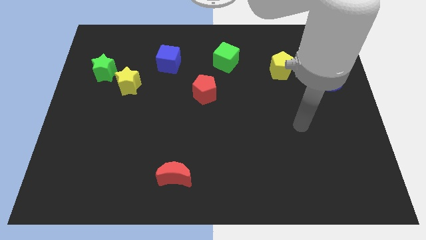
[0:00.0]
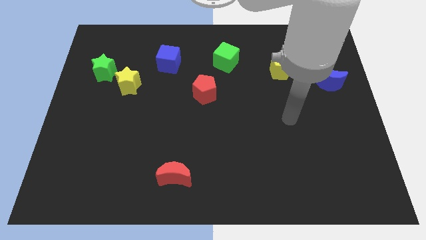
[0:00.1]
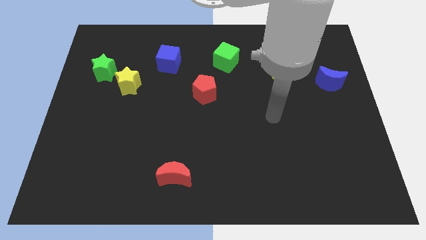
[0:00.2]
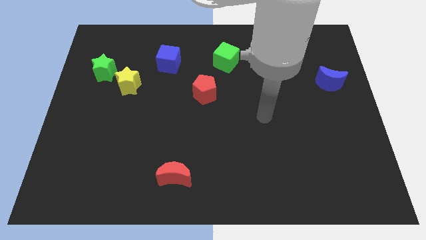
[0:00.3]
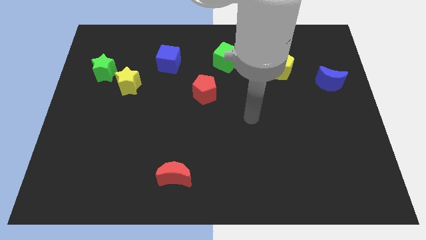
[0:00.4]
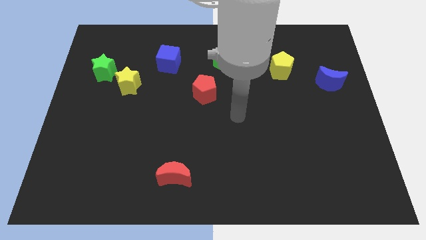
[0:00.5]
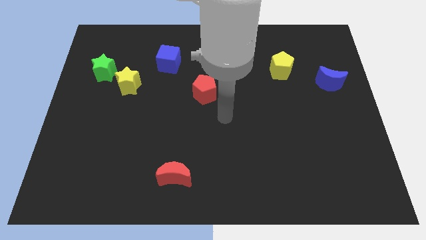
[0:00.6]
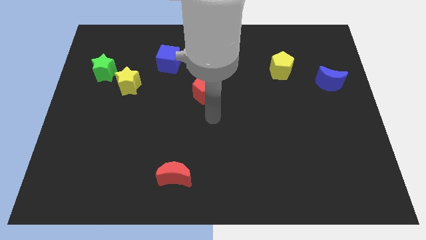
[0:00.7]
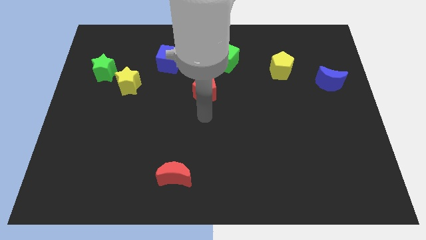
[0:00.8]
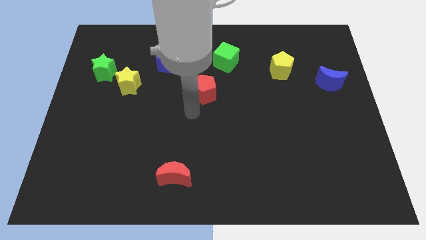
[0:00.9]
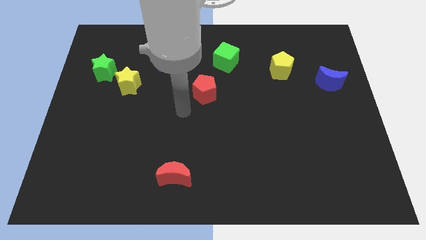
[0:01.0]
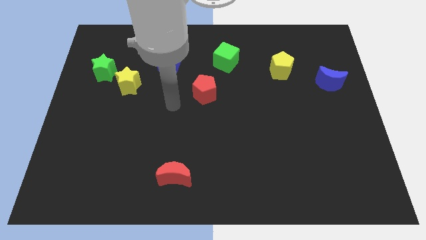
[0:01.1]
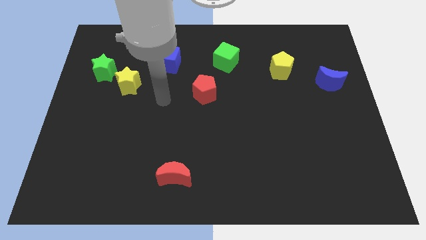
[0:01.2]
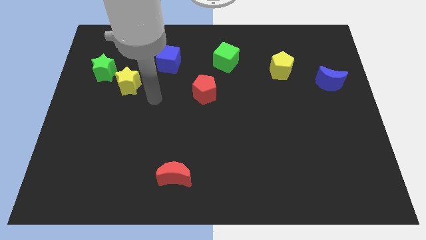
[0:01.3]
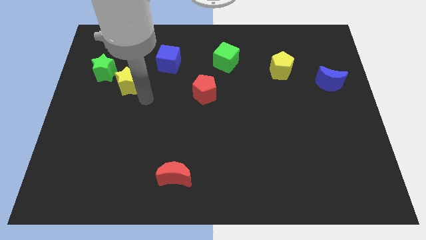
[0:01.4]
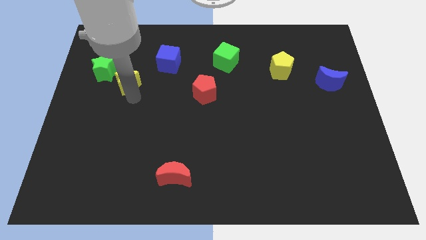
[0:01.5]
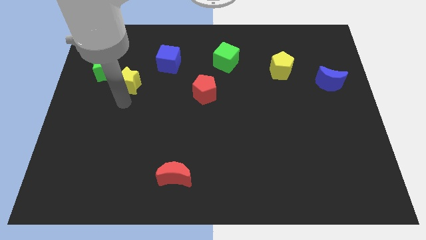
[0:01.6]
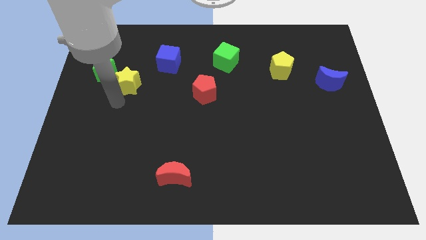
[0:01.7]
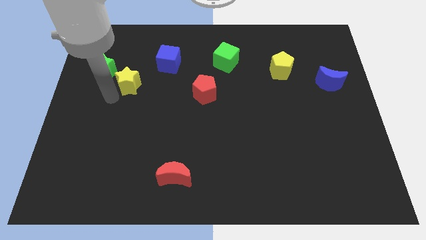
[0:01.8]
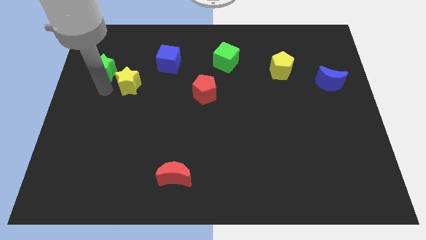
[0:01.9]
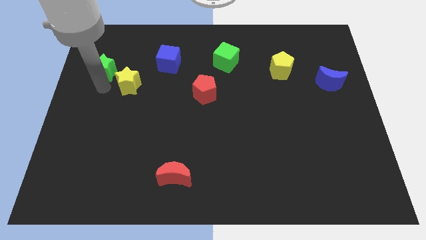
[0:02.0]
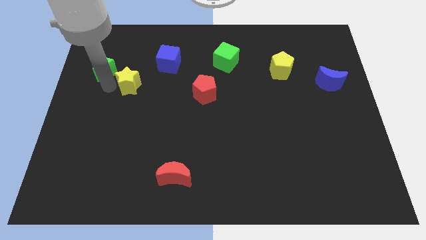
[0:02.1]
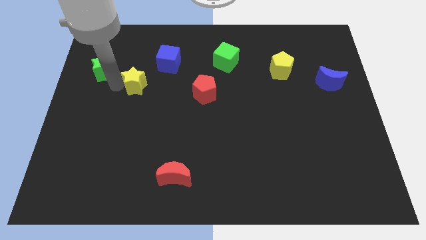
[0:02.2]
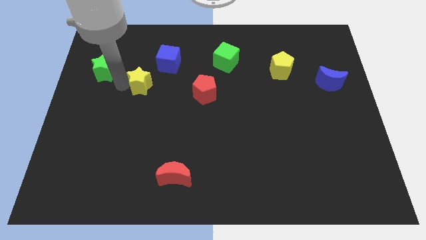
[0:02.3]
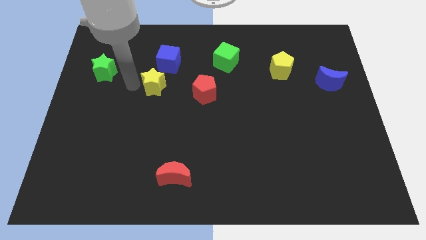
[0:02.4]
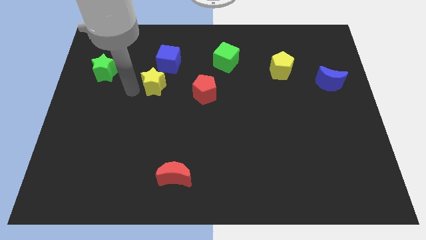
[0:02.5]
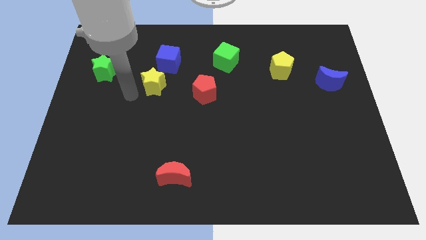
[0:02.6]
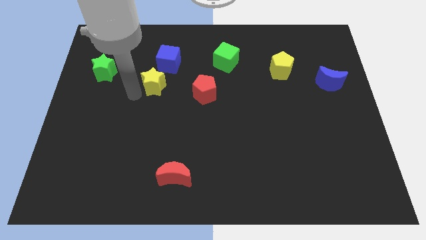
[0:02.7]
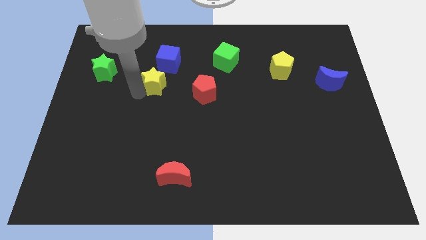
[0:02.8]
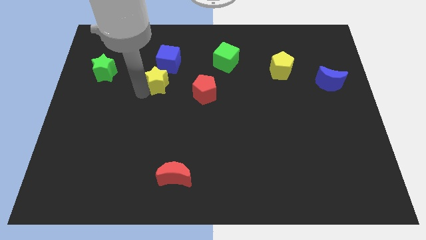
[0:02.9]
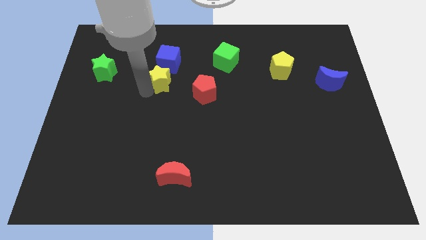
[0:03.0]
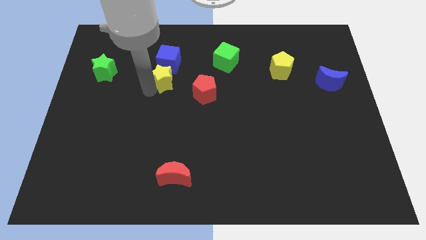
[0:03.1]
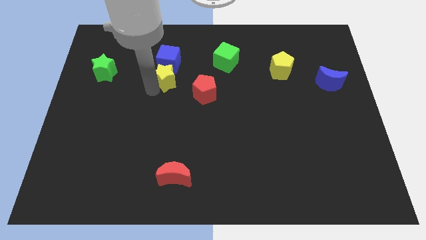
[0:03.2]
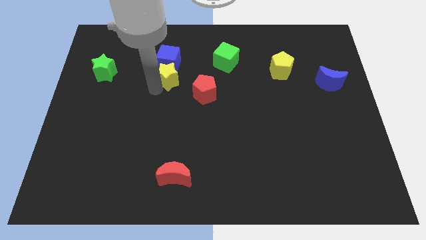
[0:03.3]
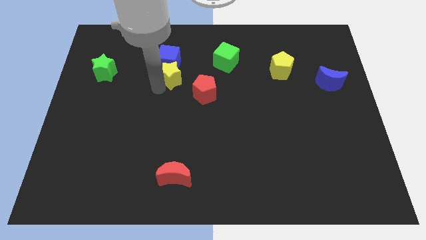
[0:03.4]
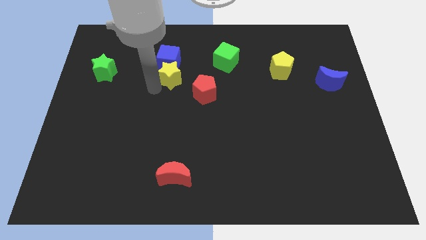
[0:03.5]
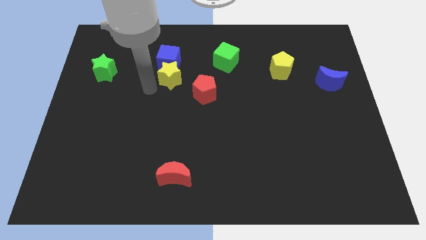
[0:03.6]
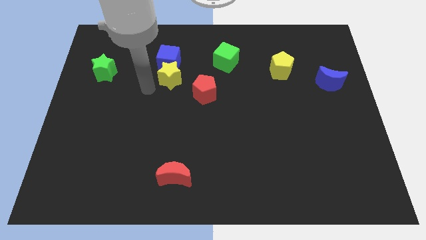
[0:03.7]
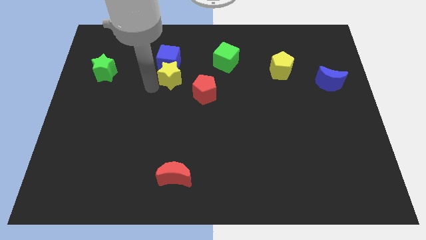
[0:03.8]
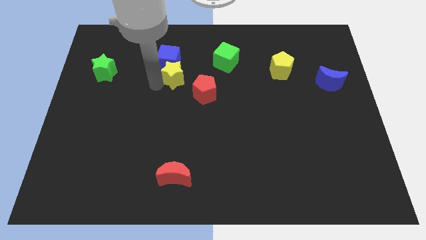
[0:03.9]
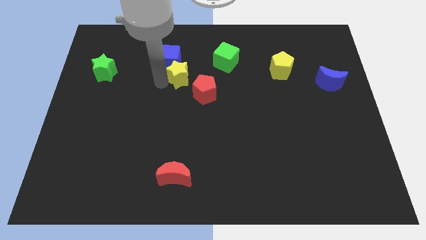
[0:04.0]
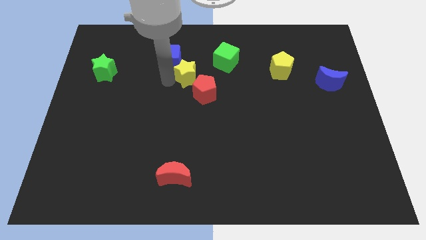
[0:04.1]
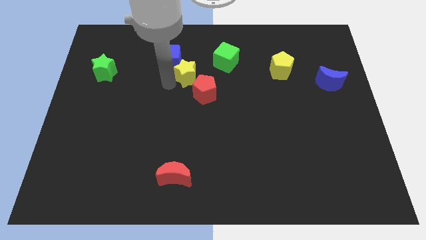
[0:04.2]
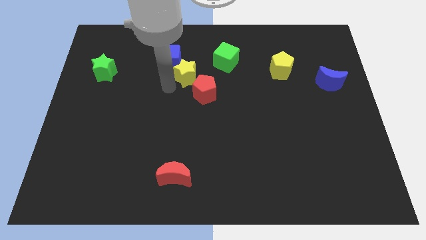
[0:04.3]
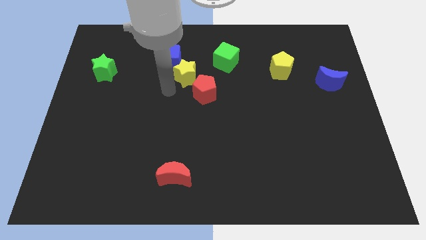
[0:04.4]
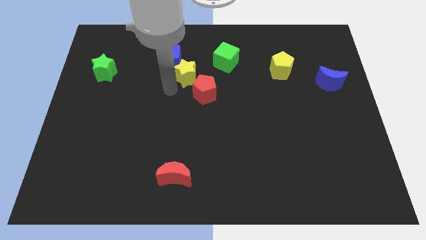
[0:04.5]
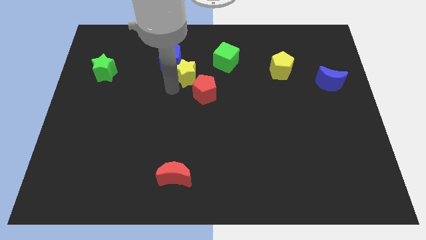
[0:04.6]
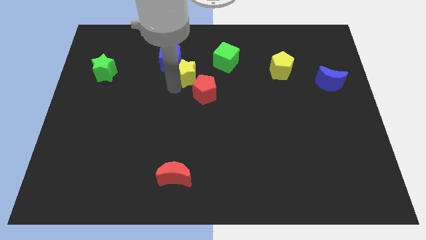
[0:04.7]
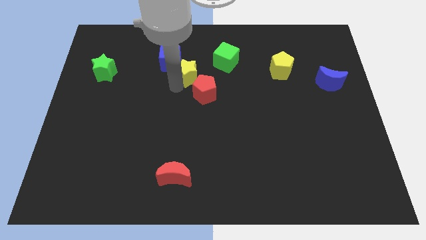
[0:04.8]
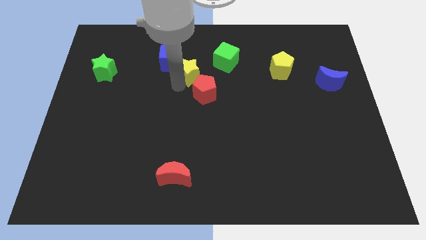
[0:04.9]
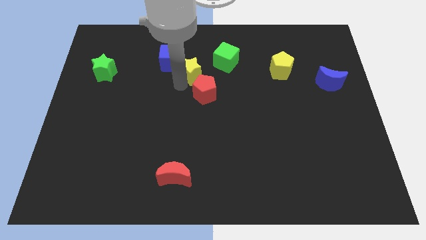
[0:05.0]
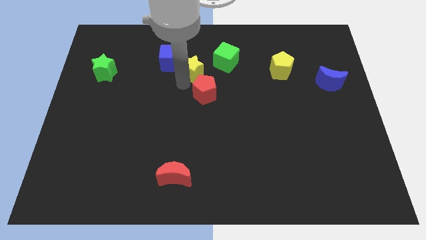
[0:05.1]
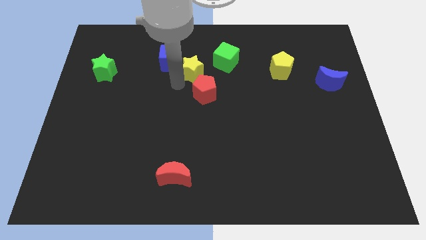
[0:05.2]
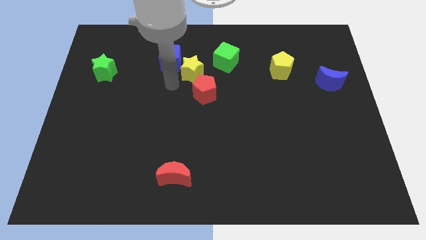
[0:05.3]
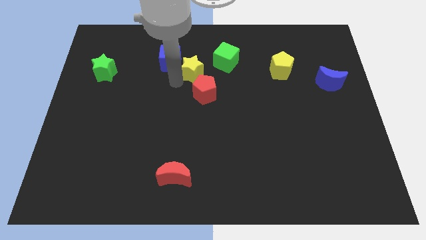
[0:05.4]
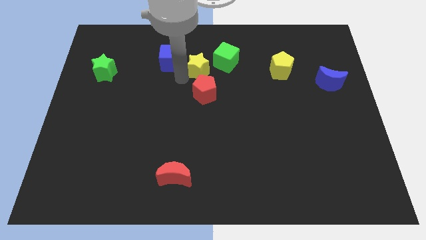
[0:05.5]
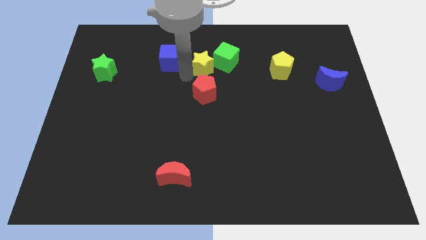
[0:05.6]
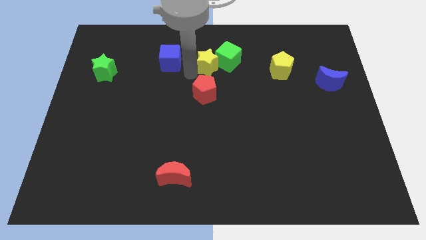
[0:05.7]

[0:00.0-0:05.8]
move the yellow star close to the green cube

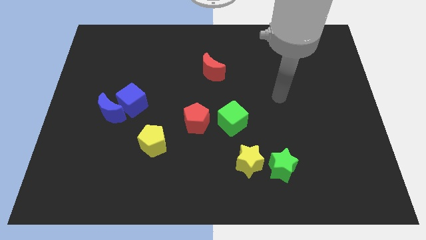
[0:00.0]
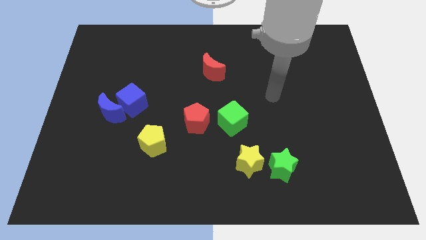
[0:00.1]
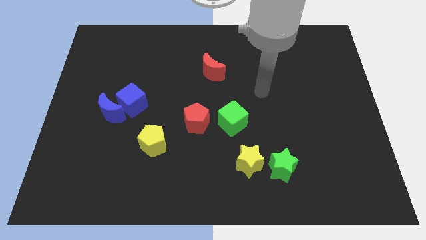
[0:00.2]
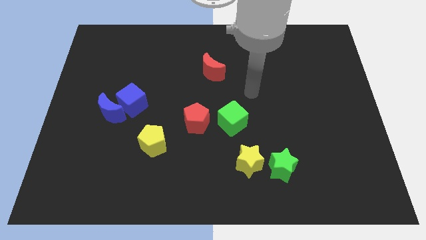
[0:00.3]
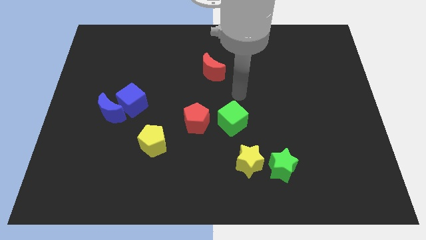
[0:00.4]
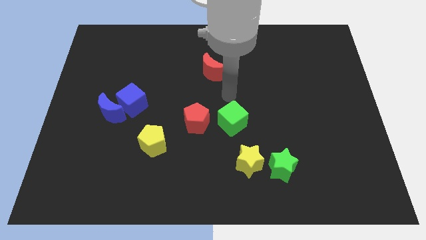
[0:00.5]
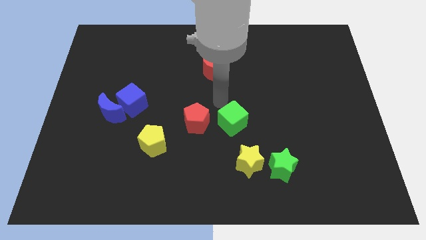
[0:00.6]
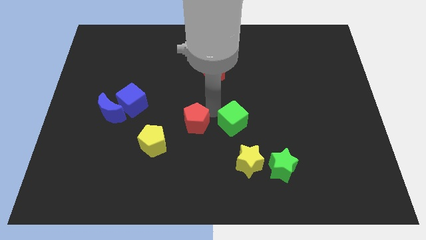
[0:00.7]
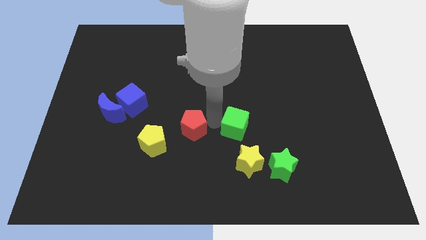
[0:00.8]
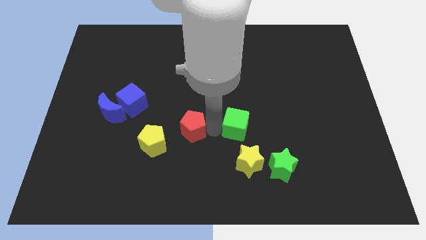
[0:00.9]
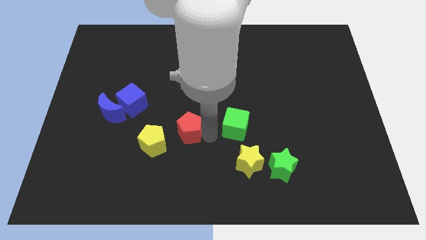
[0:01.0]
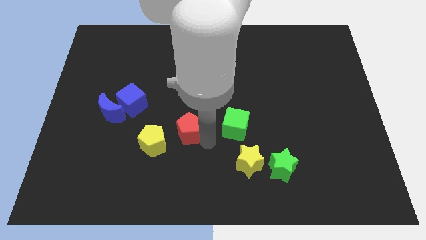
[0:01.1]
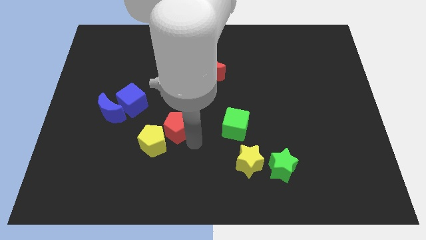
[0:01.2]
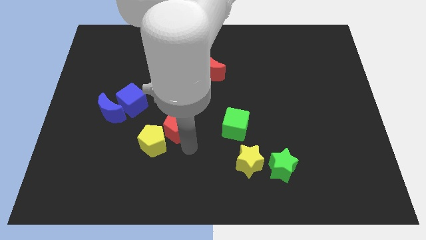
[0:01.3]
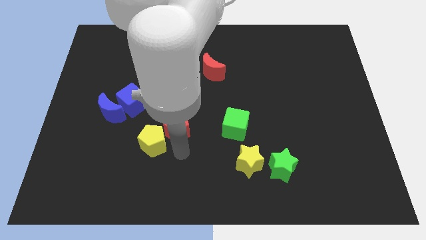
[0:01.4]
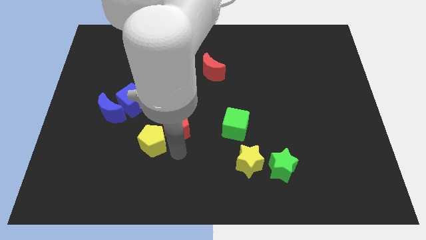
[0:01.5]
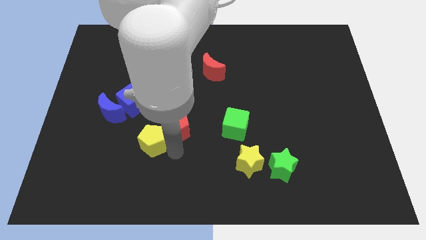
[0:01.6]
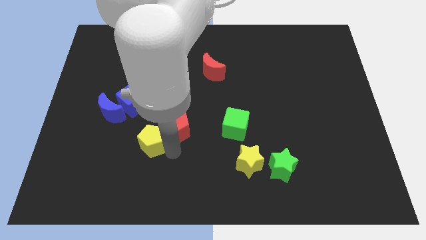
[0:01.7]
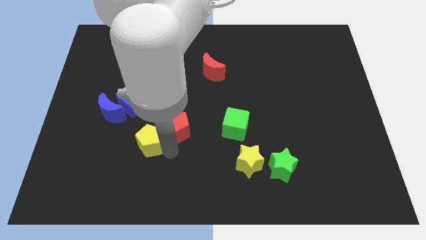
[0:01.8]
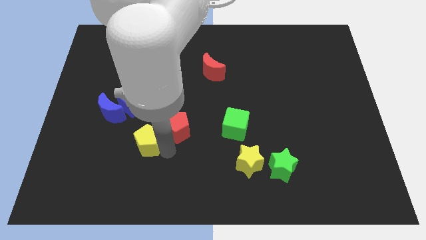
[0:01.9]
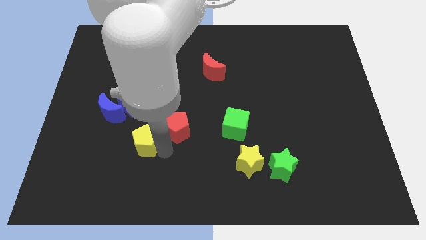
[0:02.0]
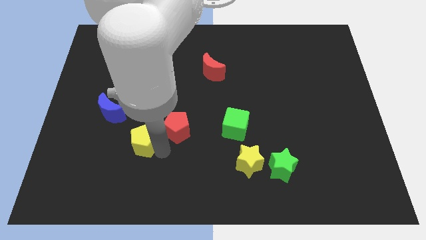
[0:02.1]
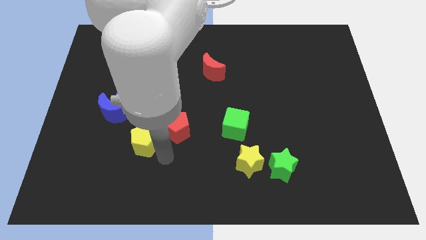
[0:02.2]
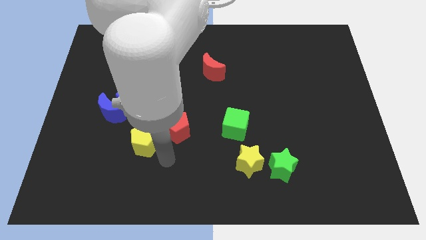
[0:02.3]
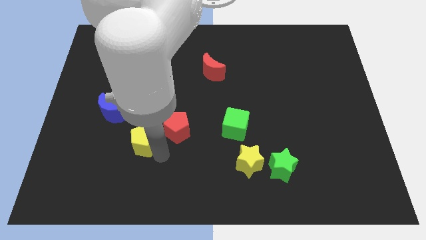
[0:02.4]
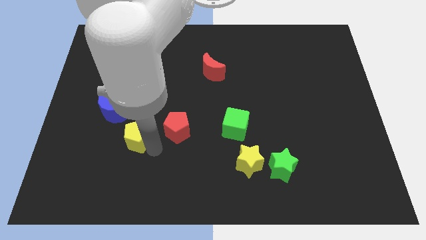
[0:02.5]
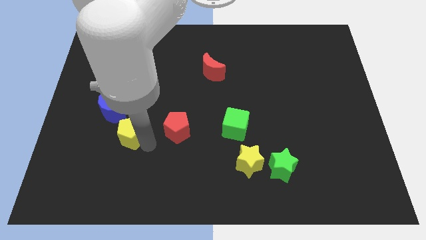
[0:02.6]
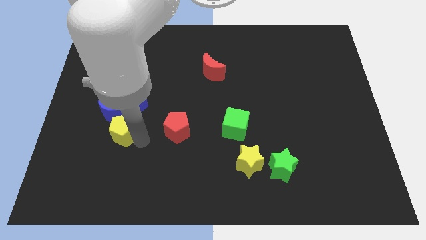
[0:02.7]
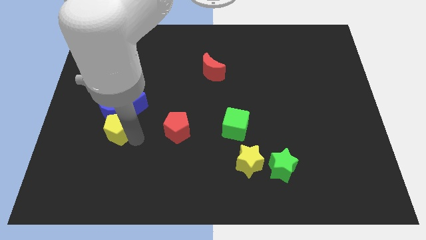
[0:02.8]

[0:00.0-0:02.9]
put the yellow pentagon to the blue moon
